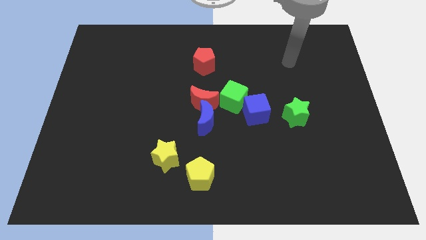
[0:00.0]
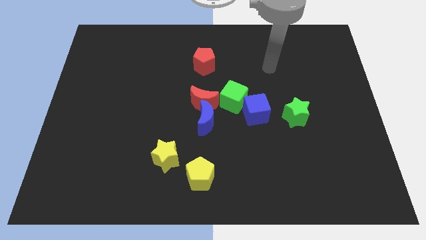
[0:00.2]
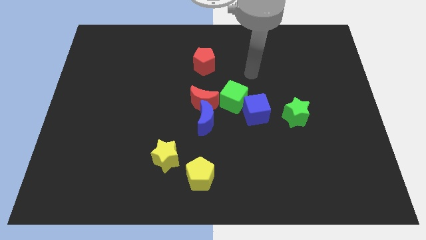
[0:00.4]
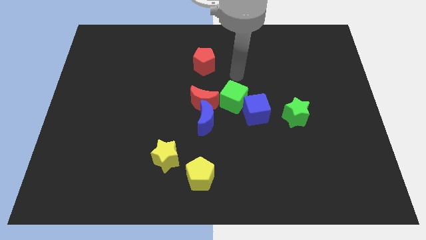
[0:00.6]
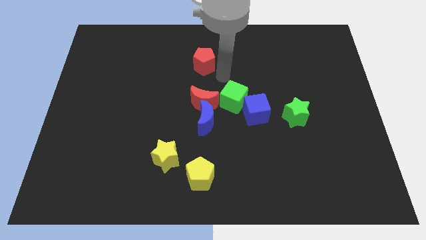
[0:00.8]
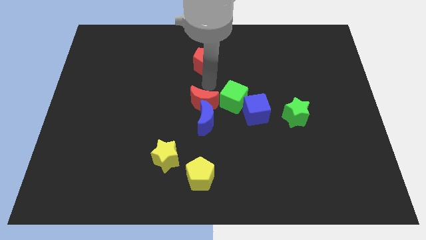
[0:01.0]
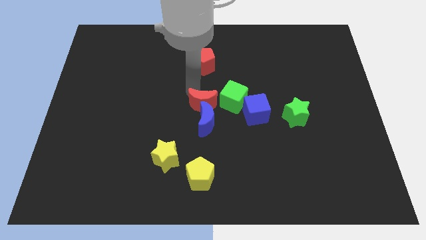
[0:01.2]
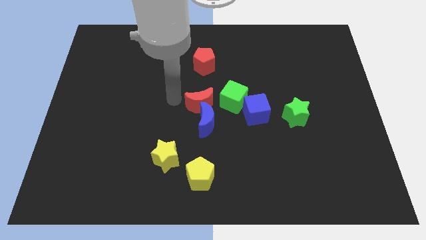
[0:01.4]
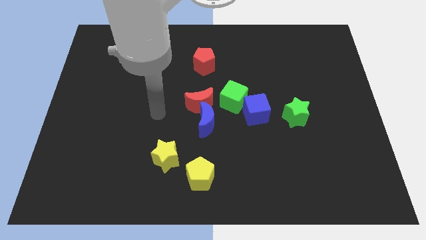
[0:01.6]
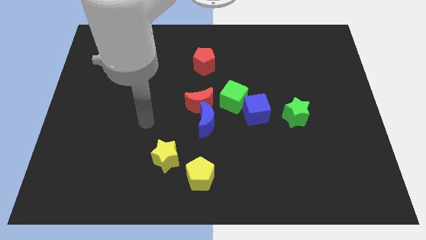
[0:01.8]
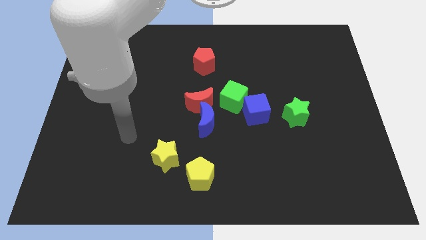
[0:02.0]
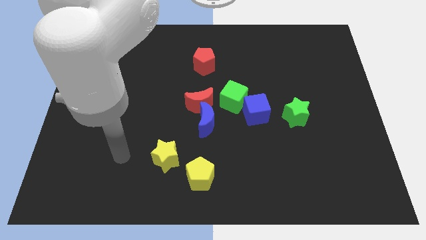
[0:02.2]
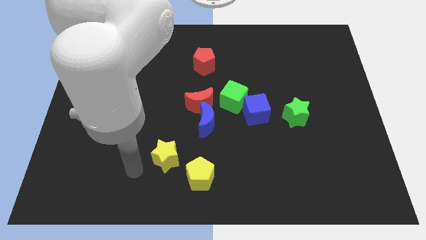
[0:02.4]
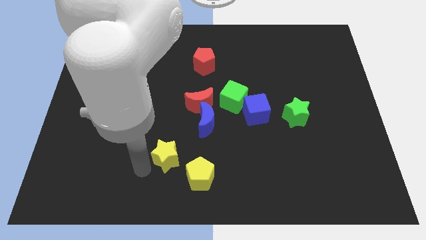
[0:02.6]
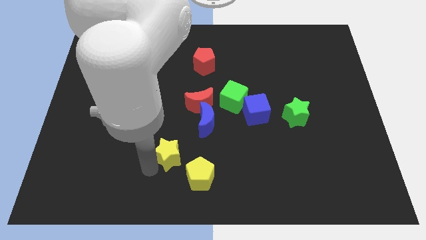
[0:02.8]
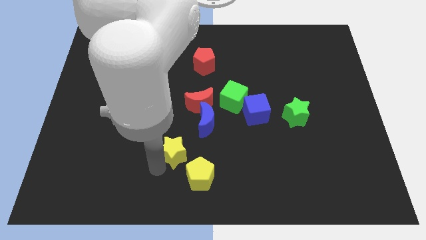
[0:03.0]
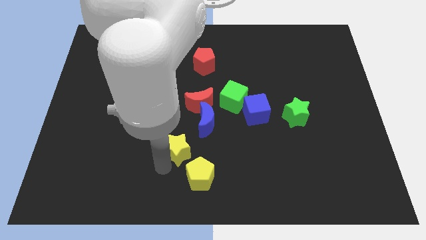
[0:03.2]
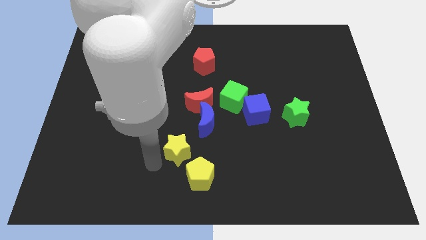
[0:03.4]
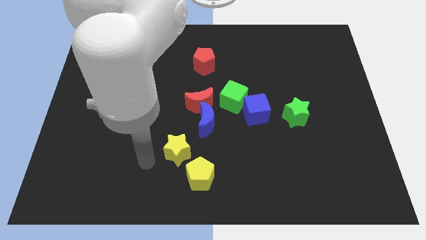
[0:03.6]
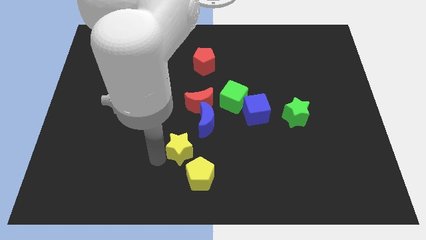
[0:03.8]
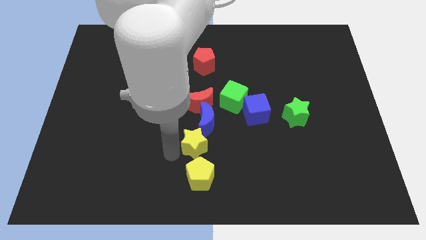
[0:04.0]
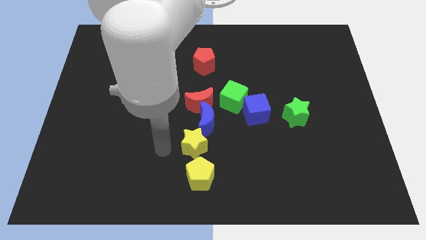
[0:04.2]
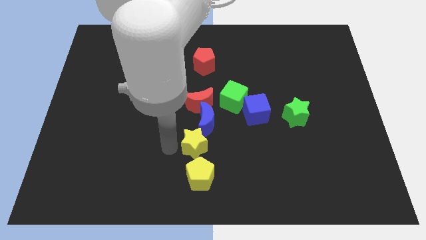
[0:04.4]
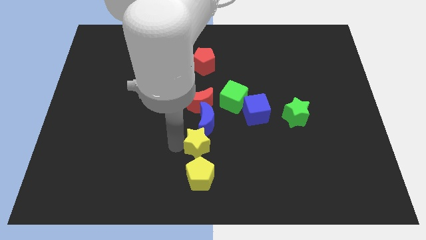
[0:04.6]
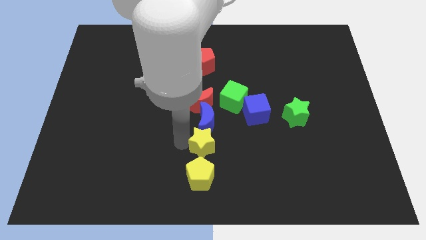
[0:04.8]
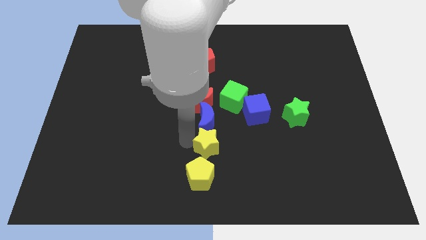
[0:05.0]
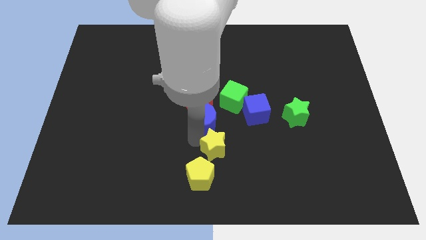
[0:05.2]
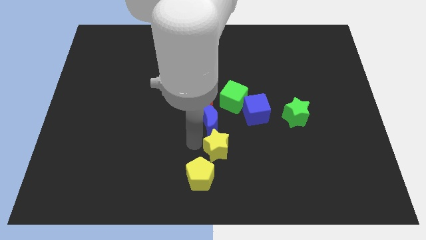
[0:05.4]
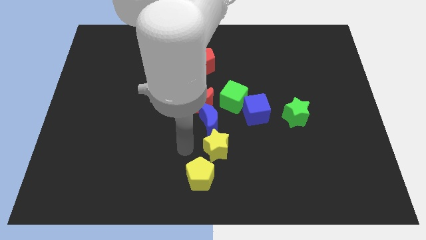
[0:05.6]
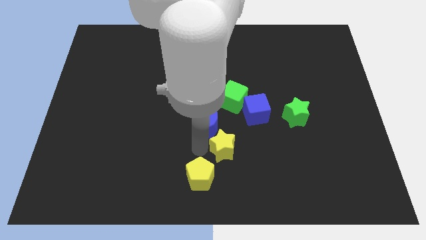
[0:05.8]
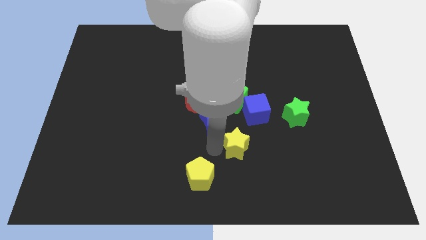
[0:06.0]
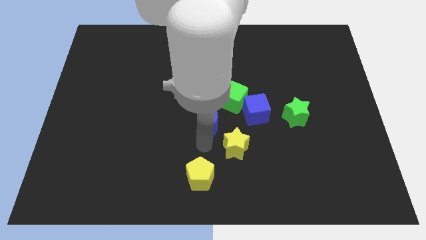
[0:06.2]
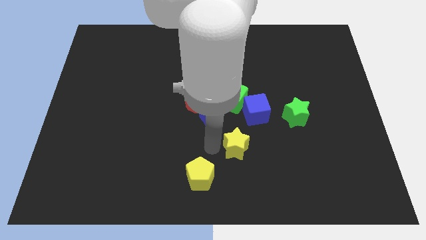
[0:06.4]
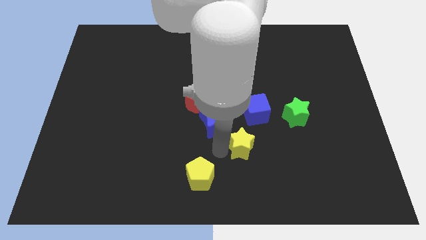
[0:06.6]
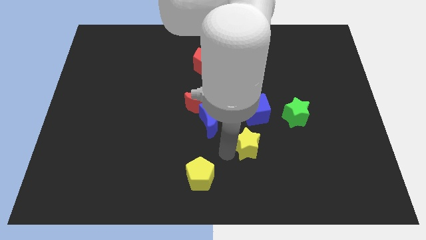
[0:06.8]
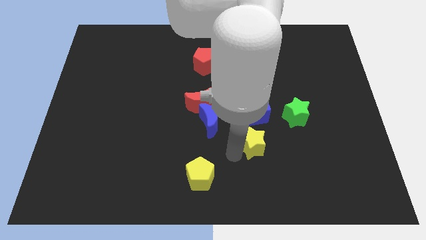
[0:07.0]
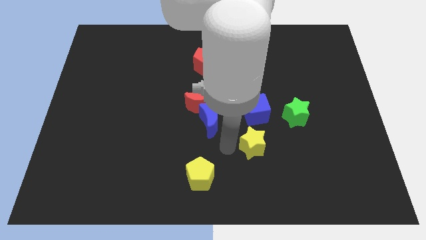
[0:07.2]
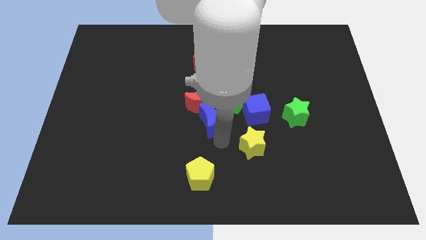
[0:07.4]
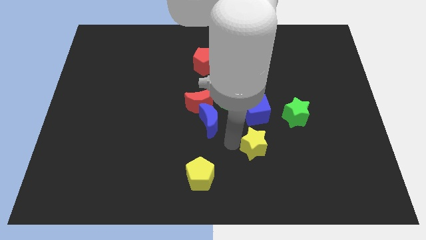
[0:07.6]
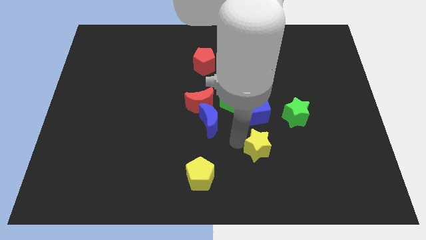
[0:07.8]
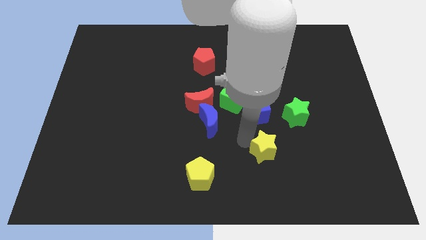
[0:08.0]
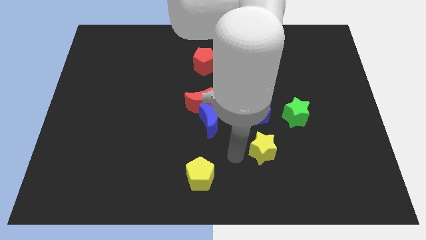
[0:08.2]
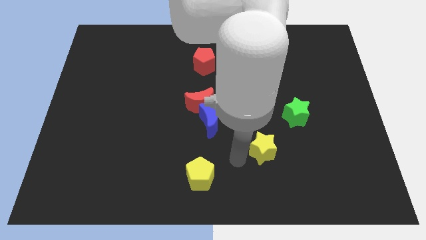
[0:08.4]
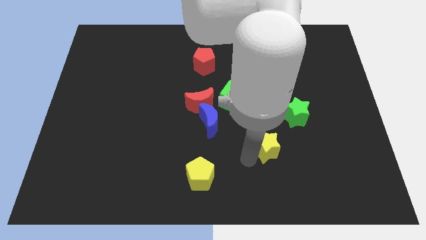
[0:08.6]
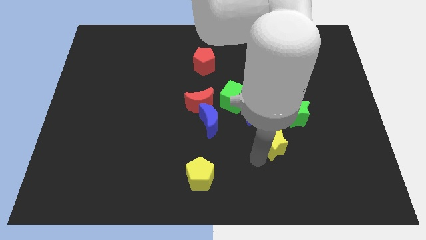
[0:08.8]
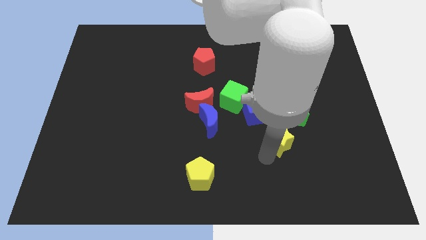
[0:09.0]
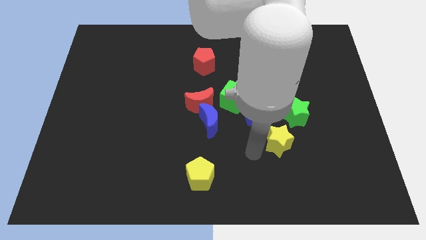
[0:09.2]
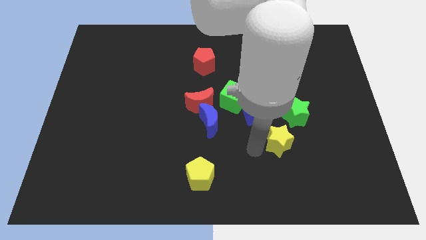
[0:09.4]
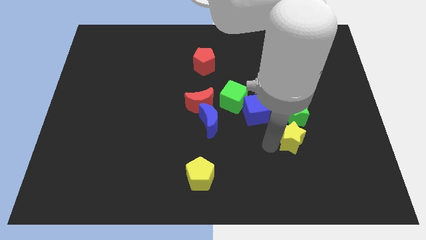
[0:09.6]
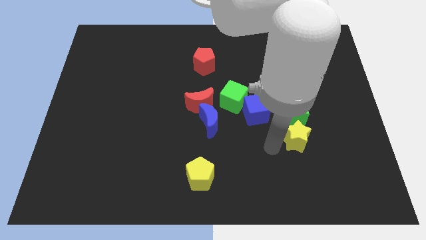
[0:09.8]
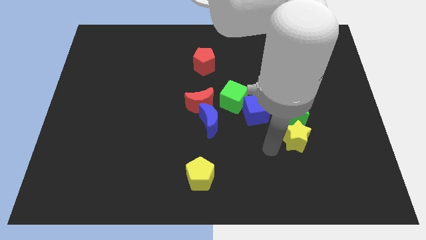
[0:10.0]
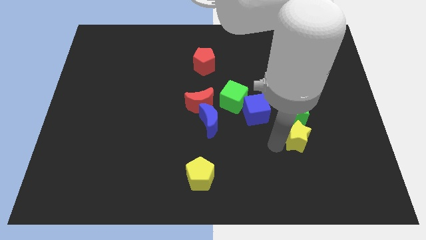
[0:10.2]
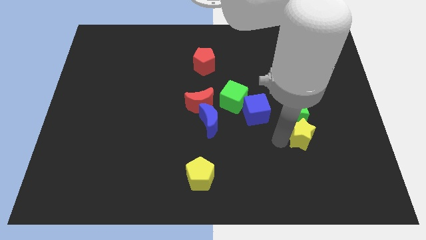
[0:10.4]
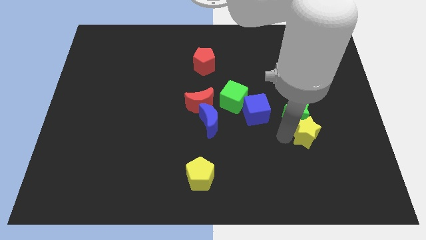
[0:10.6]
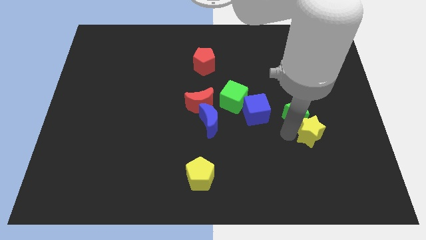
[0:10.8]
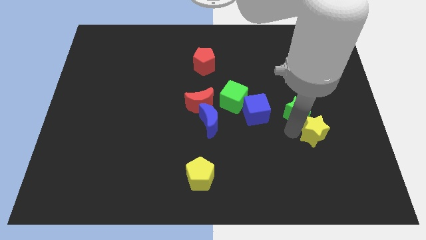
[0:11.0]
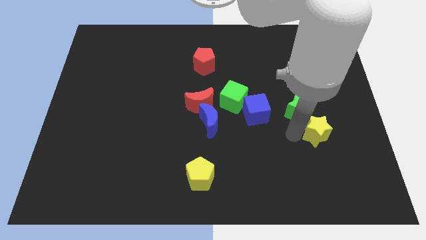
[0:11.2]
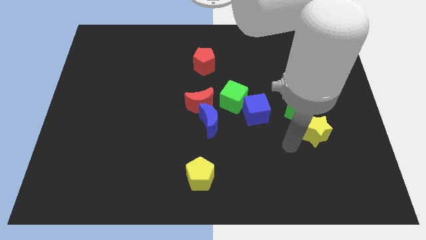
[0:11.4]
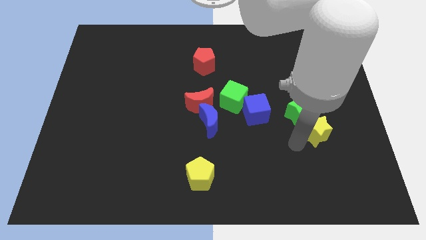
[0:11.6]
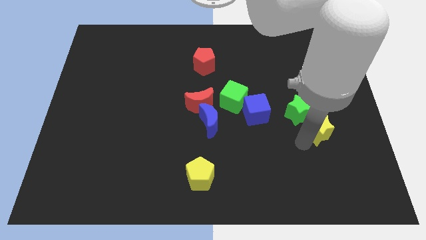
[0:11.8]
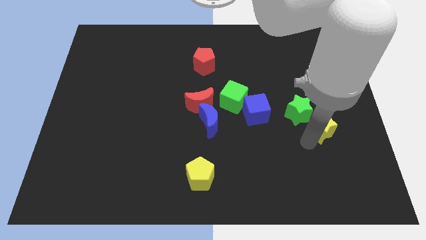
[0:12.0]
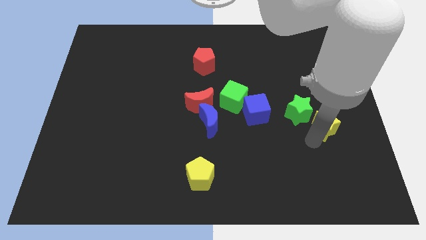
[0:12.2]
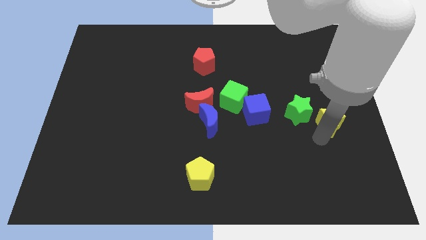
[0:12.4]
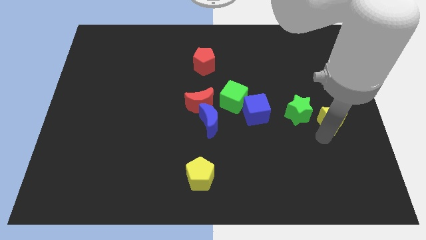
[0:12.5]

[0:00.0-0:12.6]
put the yellow star to the right side
